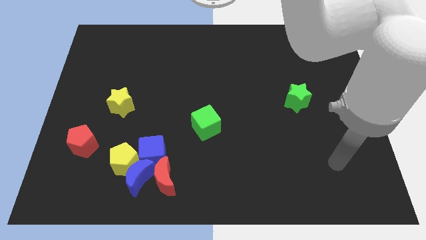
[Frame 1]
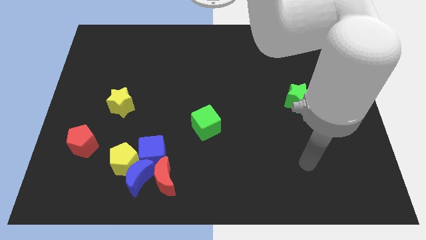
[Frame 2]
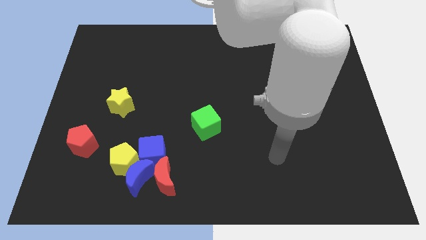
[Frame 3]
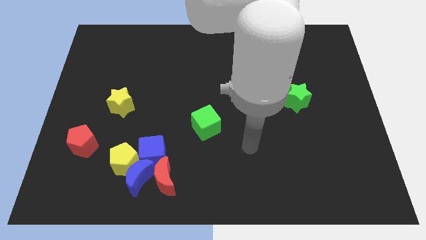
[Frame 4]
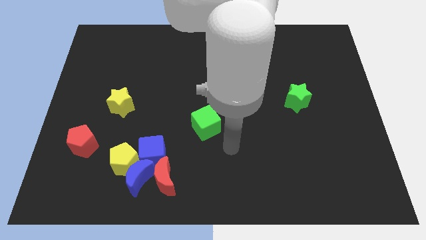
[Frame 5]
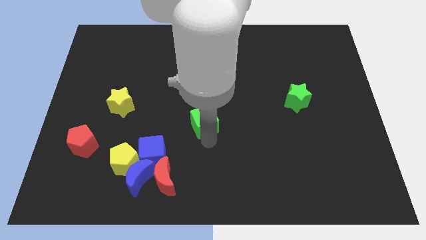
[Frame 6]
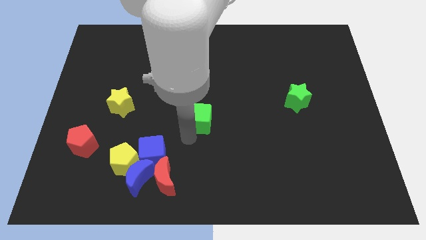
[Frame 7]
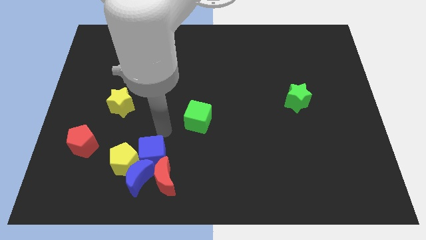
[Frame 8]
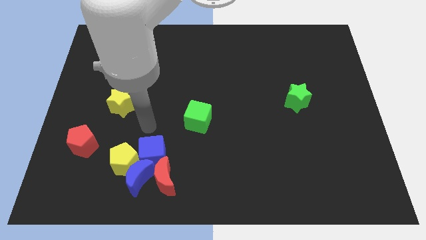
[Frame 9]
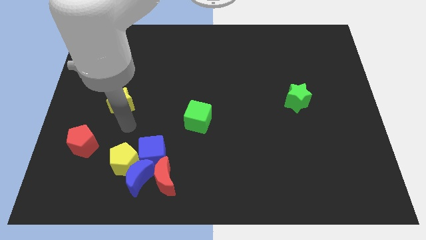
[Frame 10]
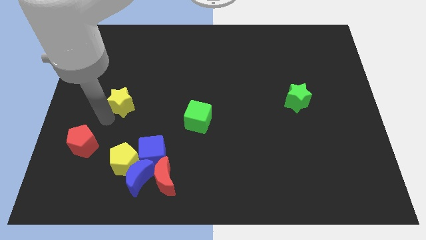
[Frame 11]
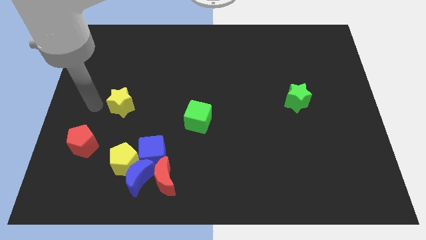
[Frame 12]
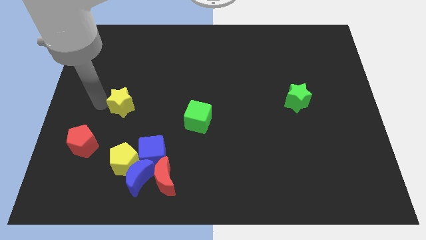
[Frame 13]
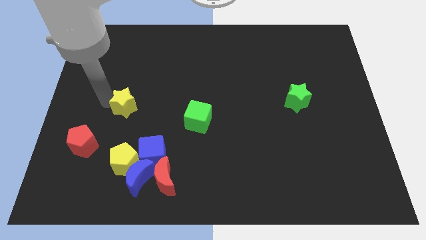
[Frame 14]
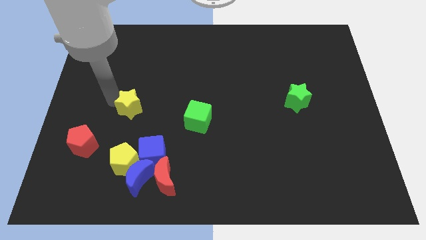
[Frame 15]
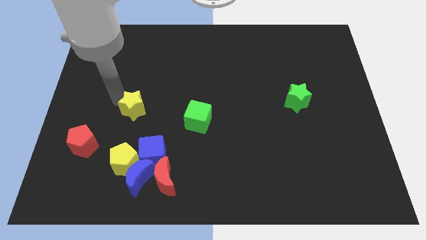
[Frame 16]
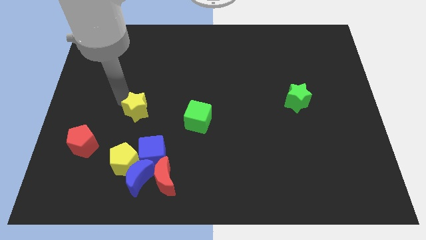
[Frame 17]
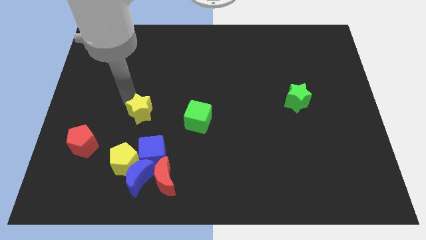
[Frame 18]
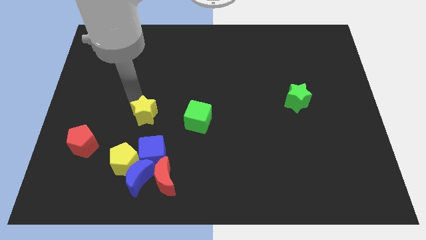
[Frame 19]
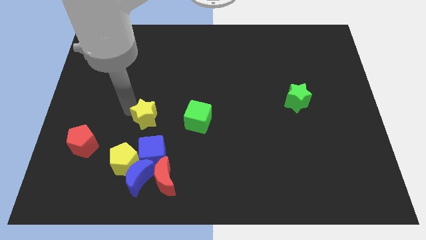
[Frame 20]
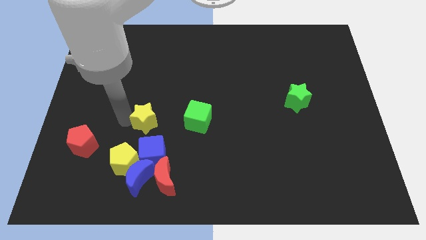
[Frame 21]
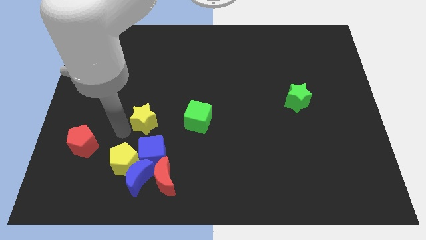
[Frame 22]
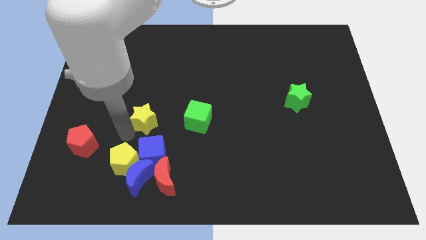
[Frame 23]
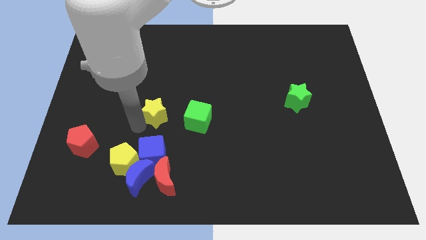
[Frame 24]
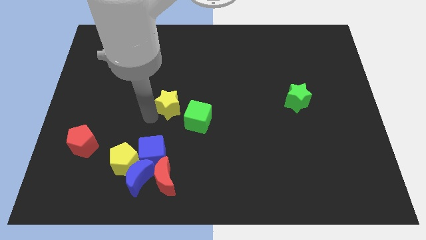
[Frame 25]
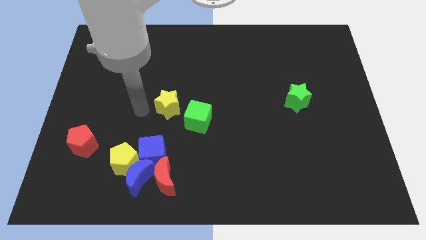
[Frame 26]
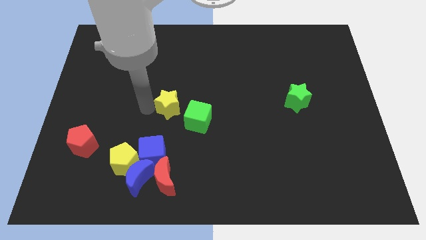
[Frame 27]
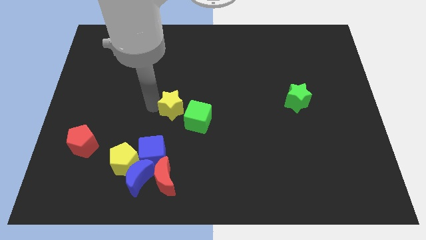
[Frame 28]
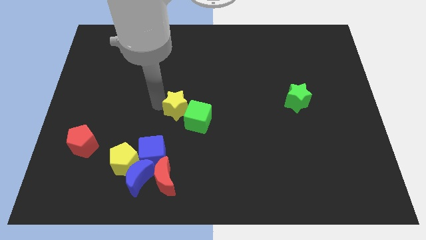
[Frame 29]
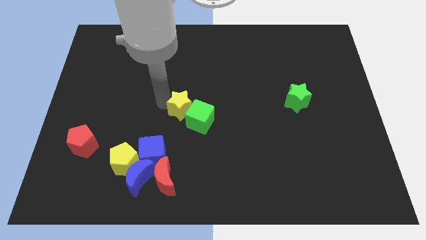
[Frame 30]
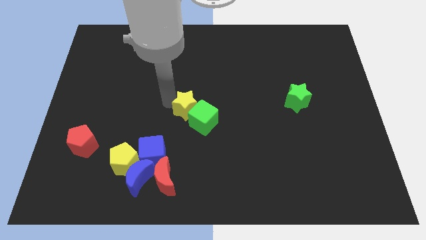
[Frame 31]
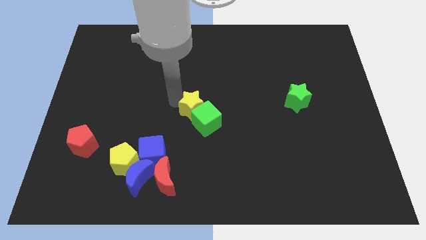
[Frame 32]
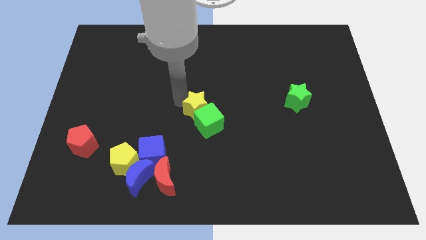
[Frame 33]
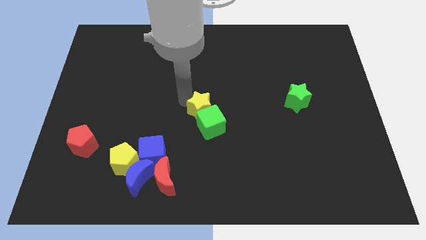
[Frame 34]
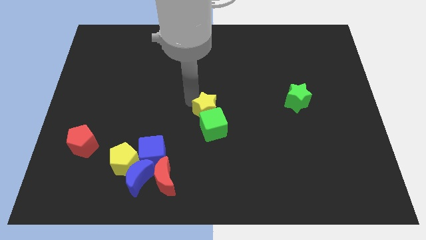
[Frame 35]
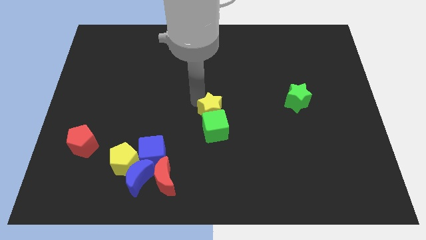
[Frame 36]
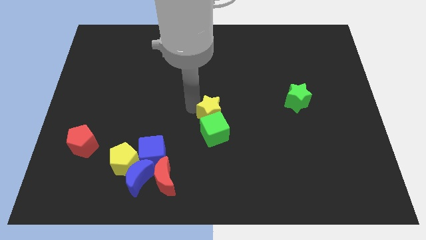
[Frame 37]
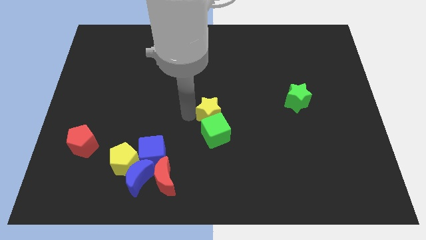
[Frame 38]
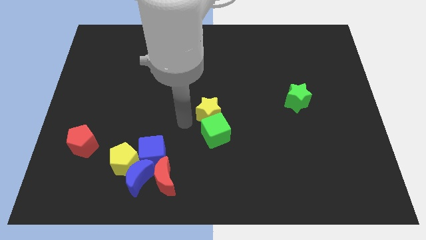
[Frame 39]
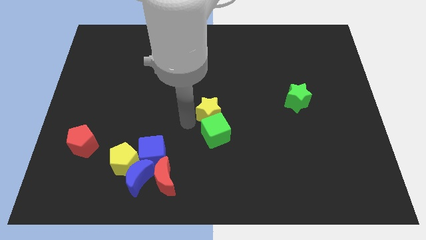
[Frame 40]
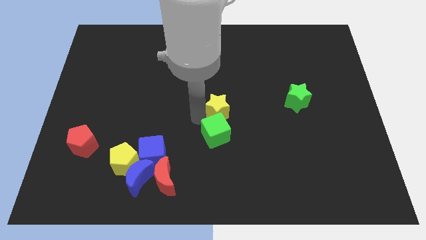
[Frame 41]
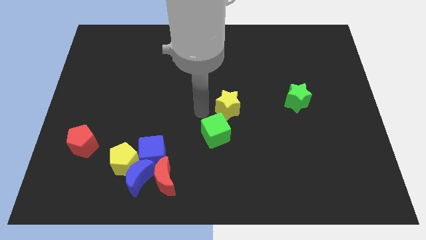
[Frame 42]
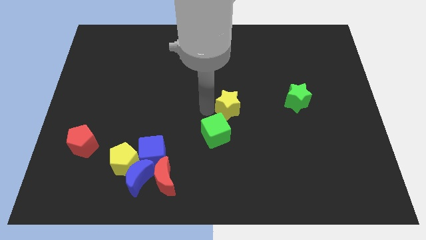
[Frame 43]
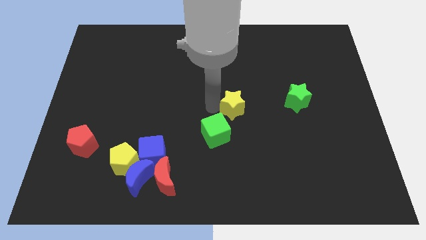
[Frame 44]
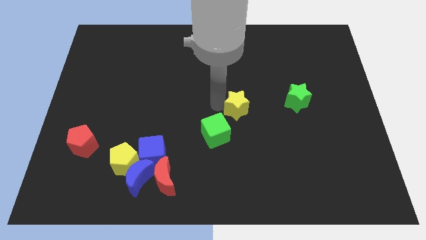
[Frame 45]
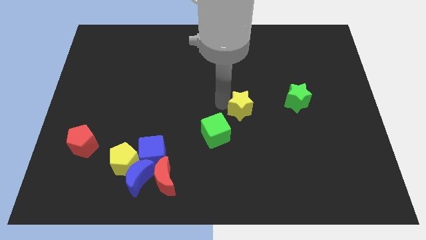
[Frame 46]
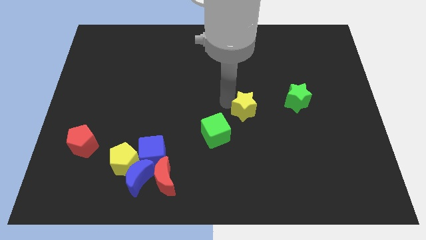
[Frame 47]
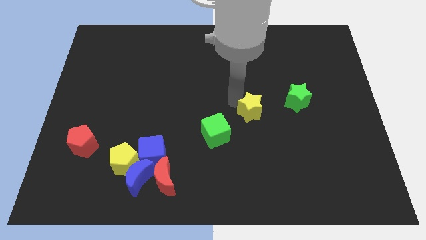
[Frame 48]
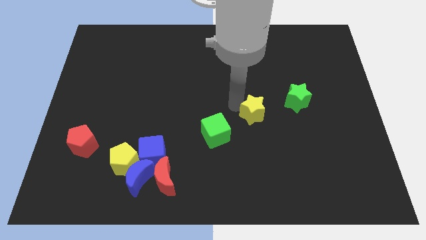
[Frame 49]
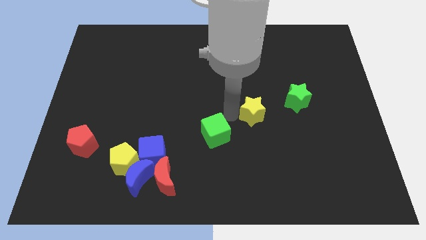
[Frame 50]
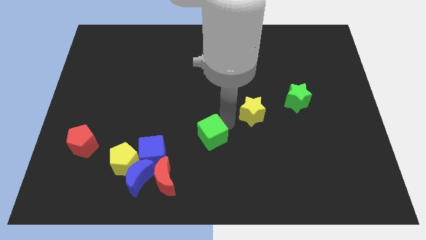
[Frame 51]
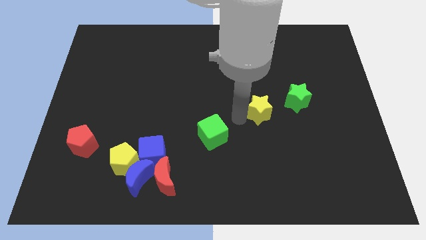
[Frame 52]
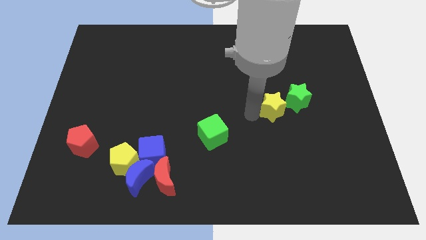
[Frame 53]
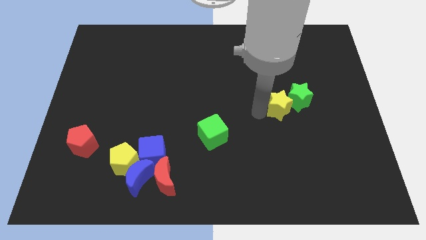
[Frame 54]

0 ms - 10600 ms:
put the yellow star close to the green star
